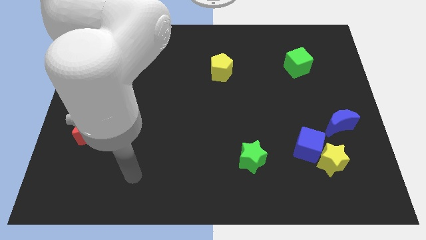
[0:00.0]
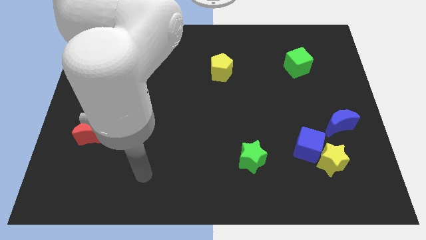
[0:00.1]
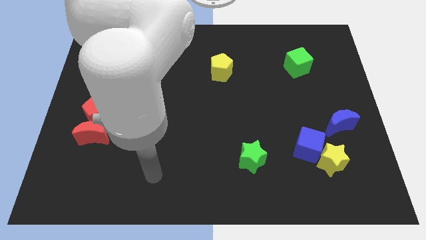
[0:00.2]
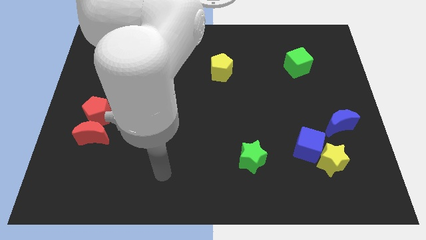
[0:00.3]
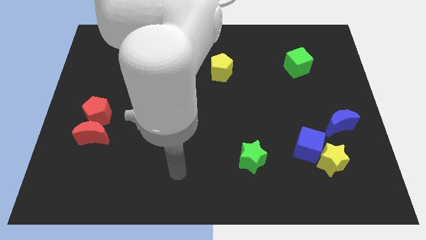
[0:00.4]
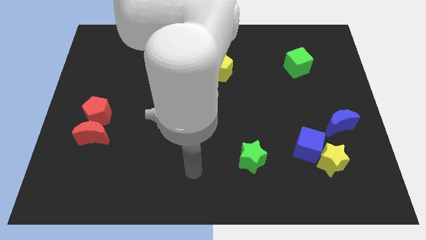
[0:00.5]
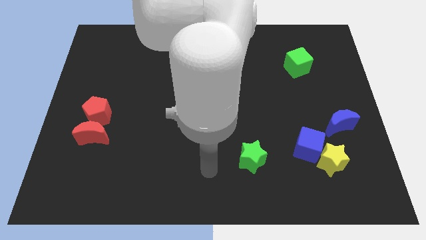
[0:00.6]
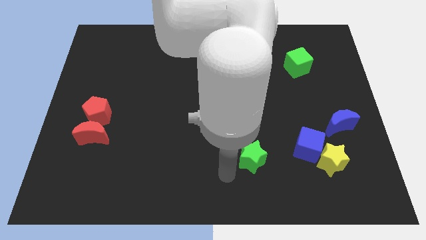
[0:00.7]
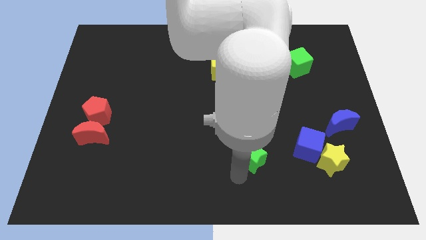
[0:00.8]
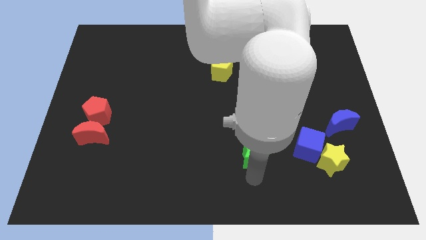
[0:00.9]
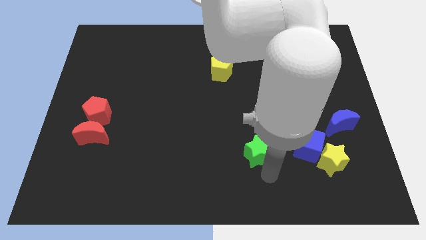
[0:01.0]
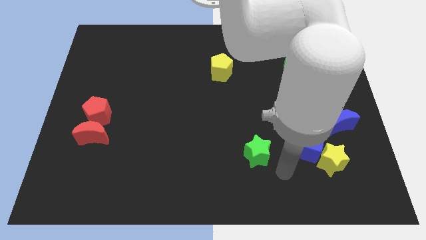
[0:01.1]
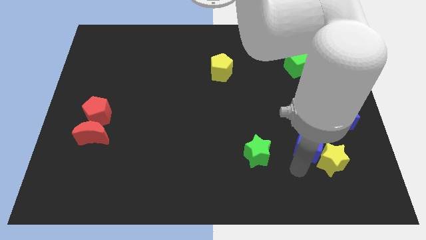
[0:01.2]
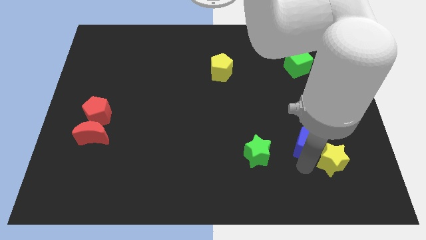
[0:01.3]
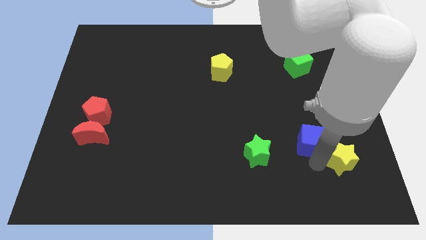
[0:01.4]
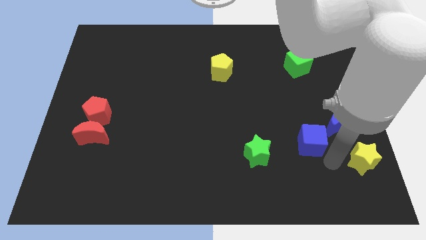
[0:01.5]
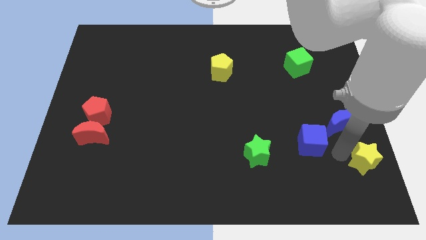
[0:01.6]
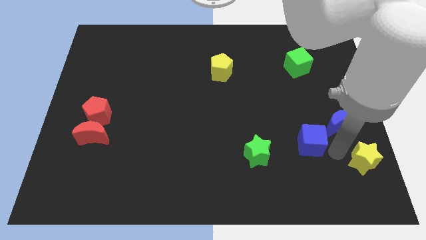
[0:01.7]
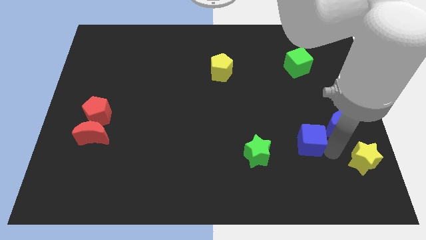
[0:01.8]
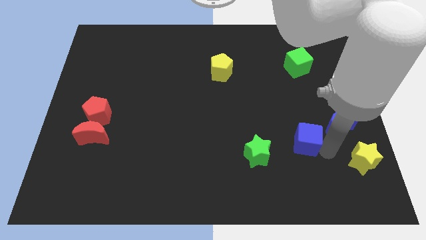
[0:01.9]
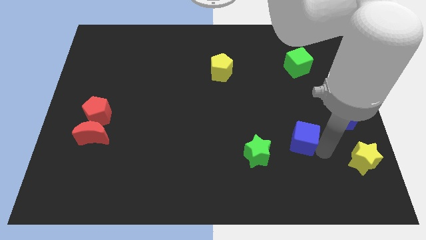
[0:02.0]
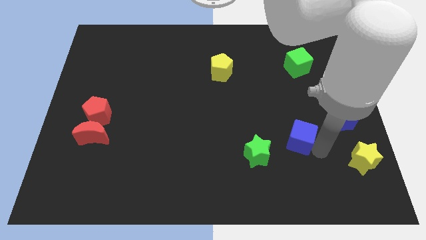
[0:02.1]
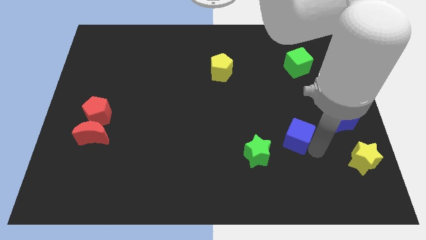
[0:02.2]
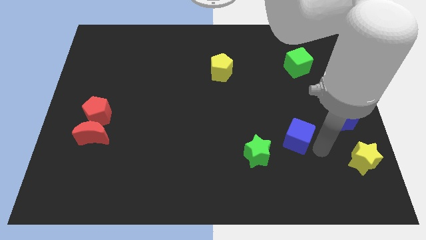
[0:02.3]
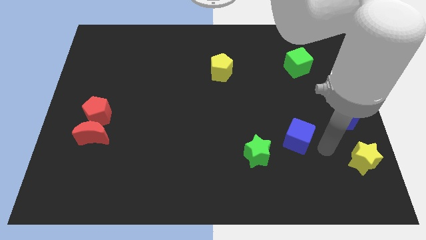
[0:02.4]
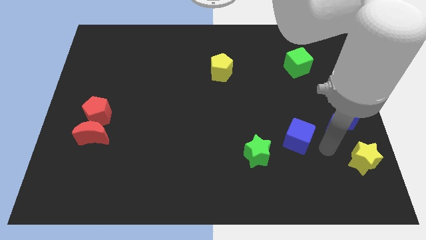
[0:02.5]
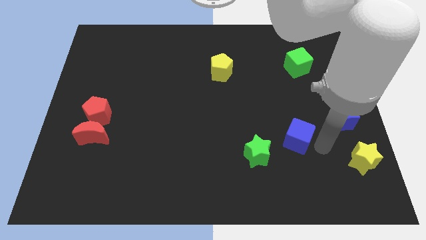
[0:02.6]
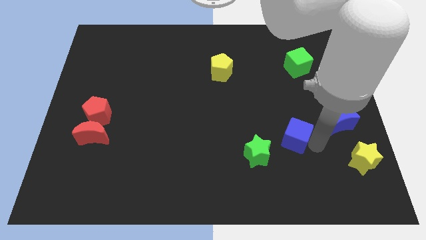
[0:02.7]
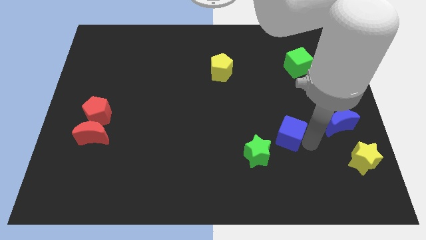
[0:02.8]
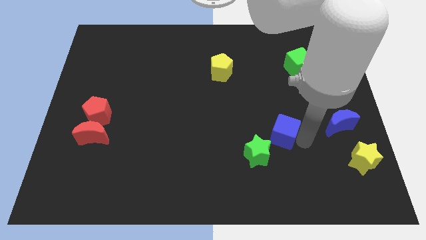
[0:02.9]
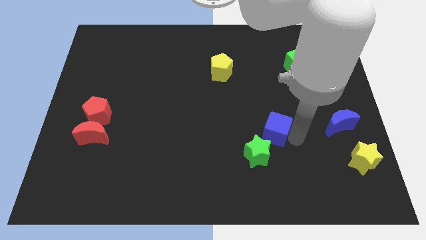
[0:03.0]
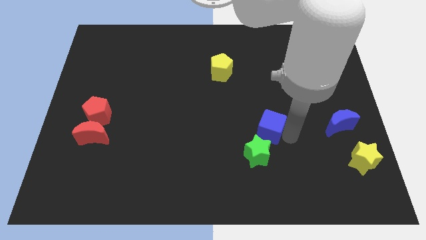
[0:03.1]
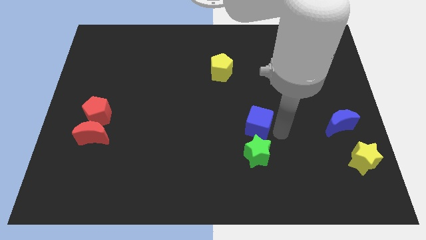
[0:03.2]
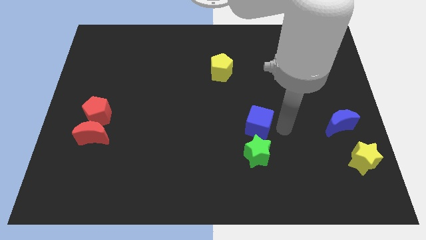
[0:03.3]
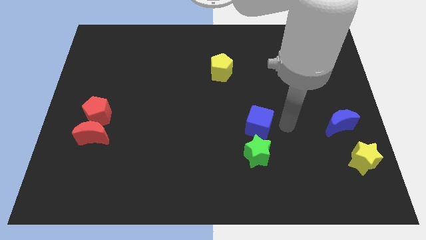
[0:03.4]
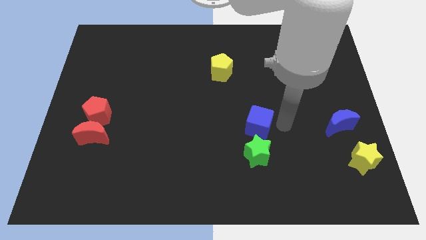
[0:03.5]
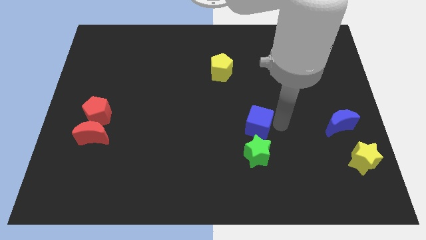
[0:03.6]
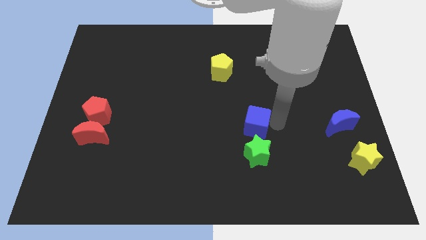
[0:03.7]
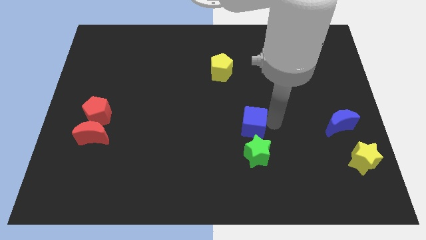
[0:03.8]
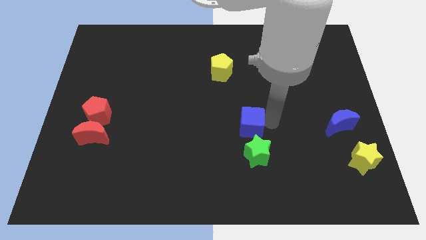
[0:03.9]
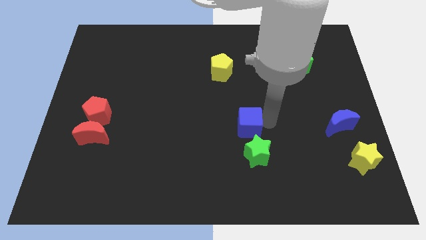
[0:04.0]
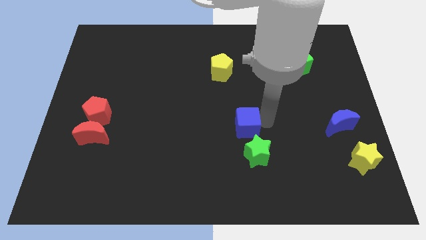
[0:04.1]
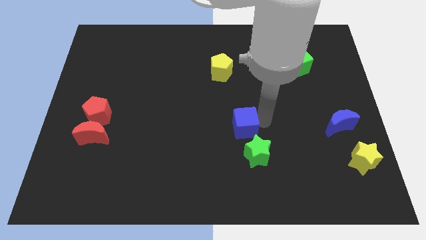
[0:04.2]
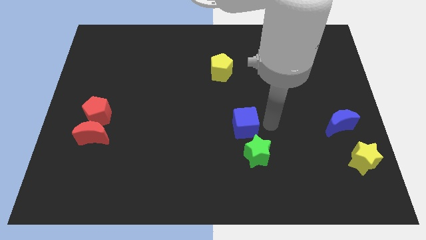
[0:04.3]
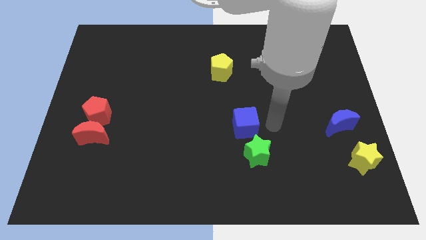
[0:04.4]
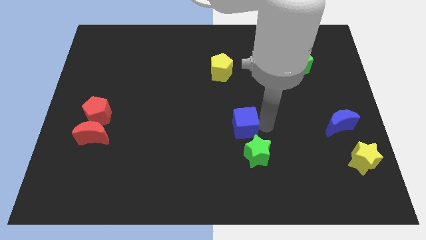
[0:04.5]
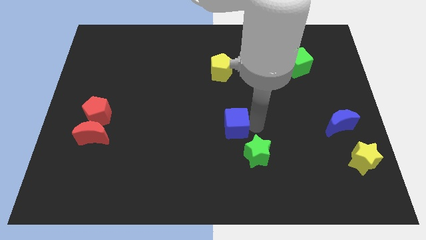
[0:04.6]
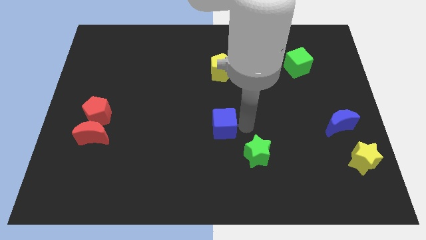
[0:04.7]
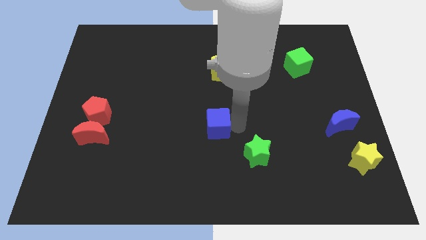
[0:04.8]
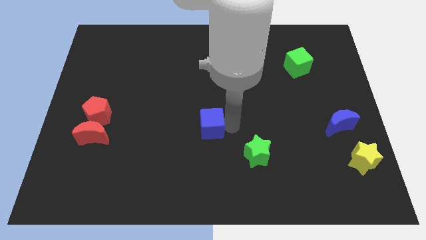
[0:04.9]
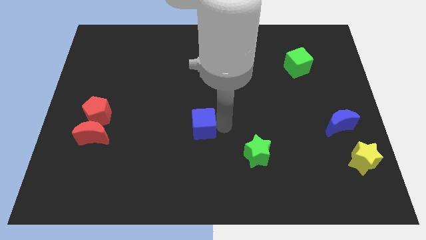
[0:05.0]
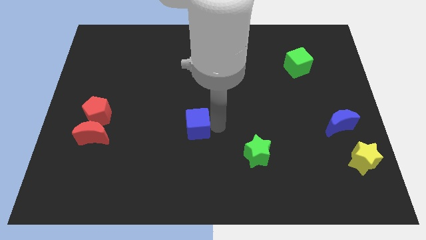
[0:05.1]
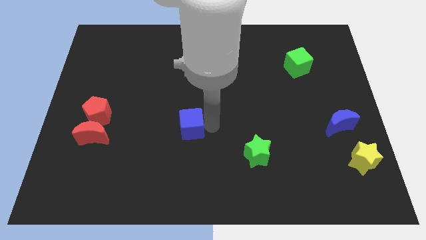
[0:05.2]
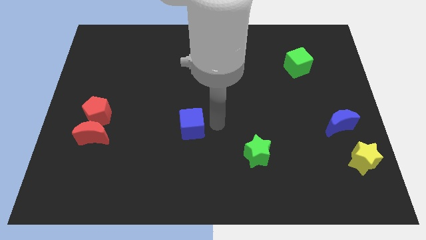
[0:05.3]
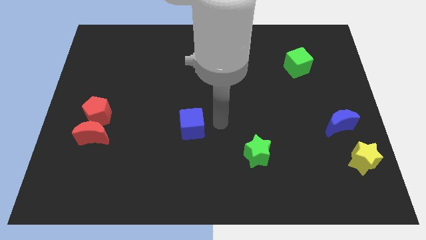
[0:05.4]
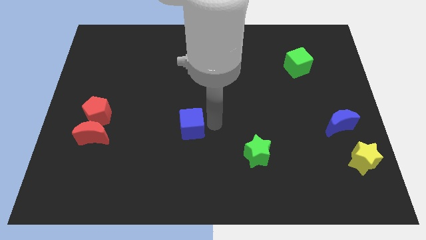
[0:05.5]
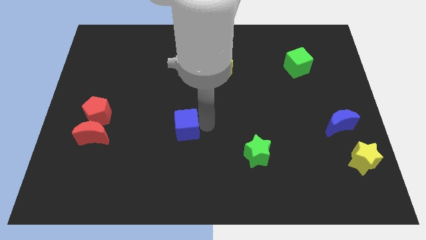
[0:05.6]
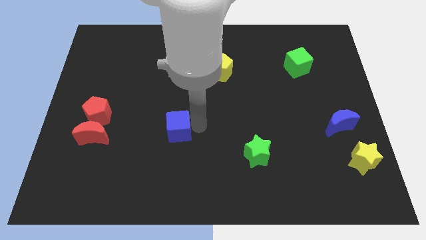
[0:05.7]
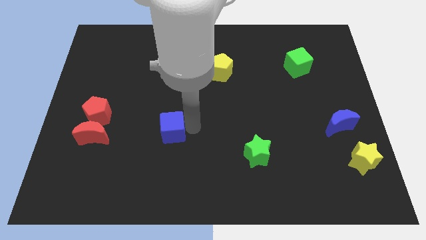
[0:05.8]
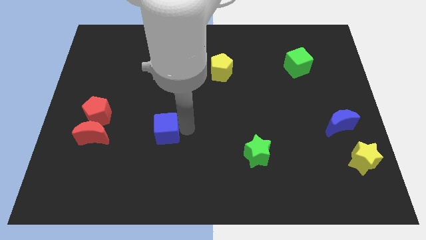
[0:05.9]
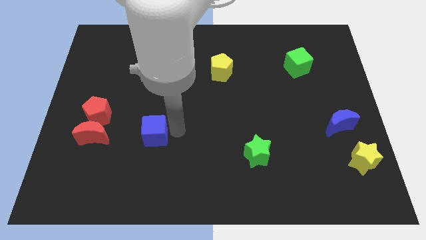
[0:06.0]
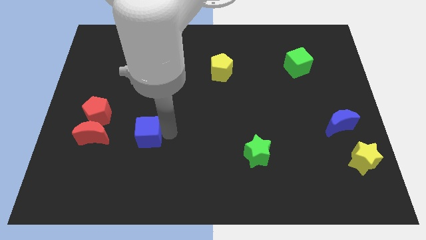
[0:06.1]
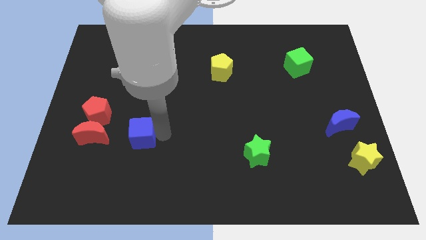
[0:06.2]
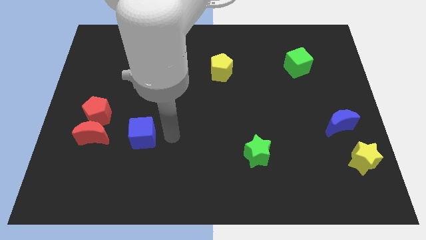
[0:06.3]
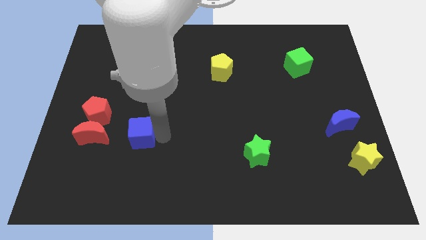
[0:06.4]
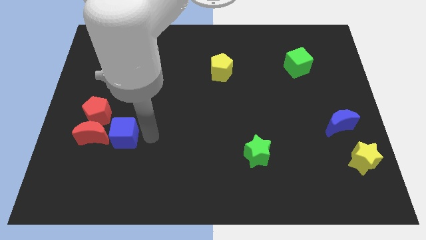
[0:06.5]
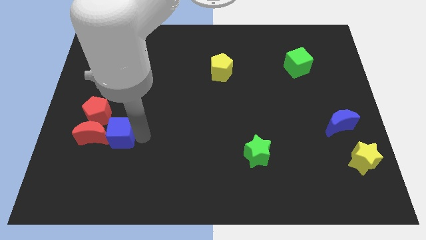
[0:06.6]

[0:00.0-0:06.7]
push the blue cube towards the red moon

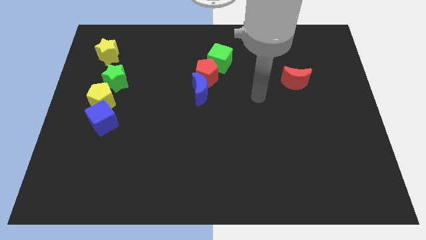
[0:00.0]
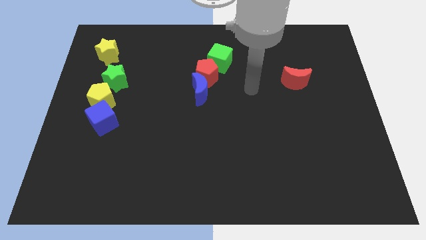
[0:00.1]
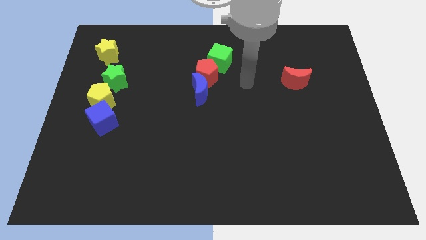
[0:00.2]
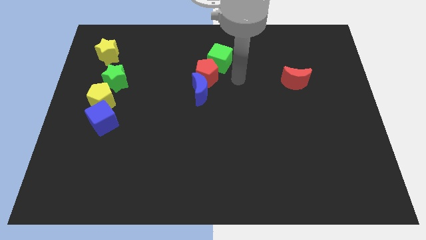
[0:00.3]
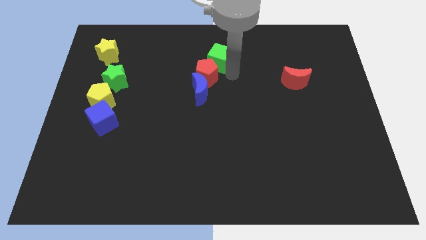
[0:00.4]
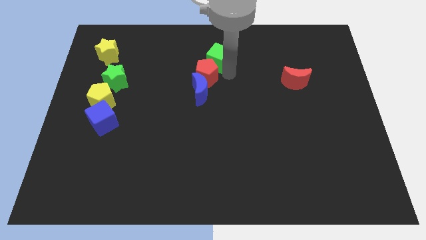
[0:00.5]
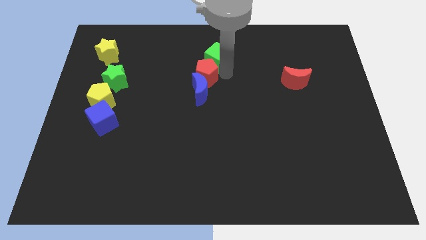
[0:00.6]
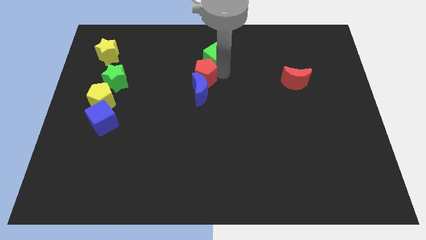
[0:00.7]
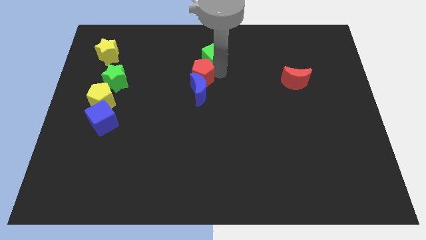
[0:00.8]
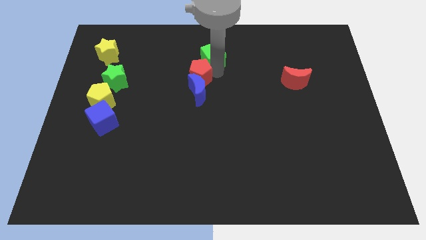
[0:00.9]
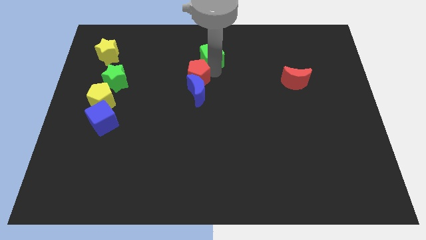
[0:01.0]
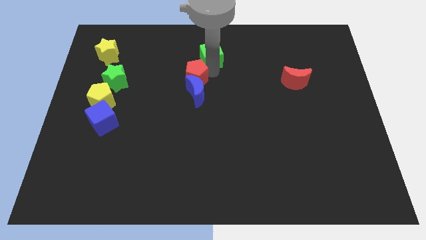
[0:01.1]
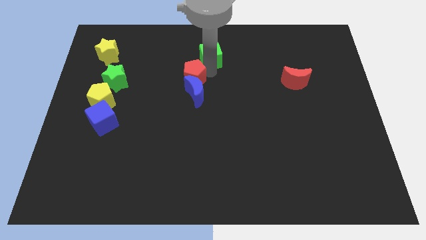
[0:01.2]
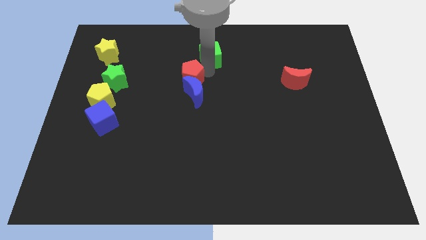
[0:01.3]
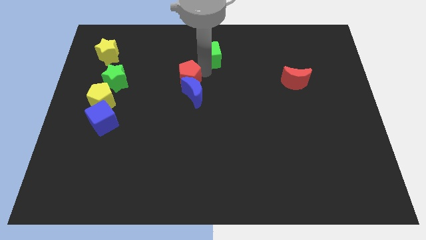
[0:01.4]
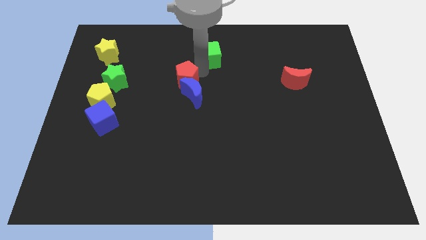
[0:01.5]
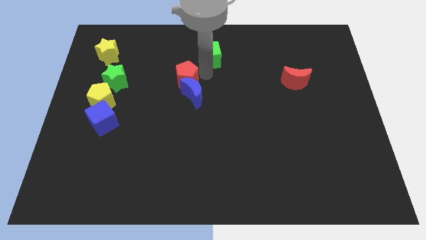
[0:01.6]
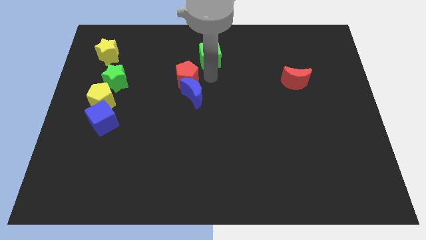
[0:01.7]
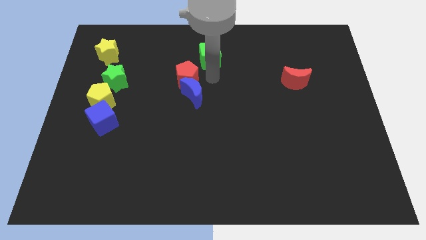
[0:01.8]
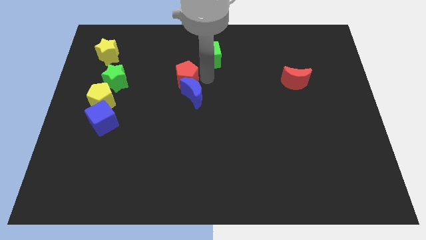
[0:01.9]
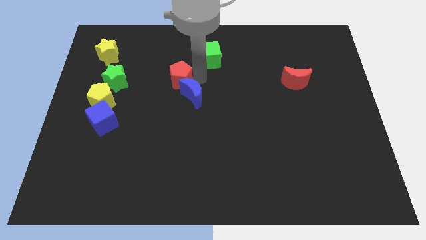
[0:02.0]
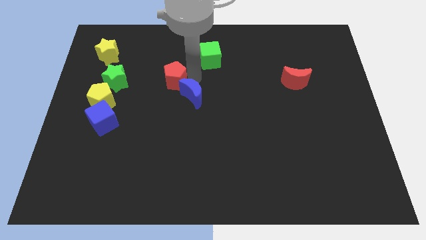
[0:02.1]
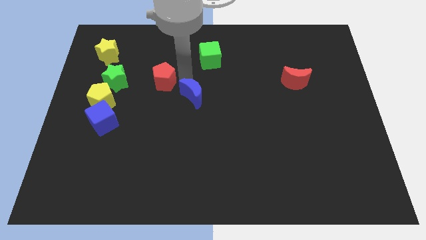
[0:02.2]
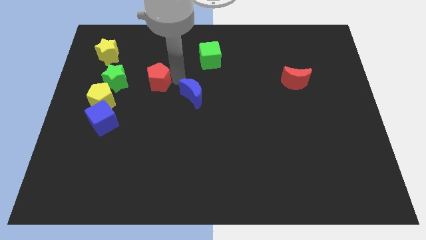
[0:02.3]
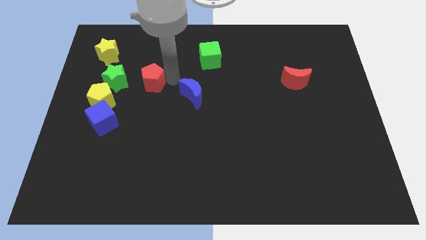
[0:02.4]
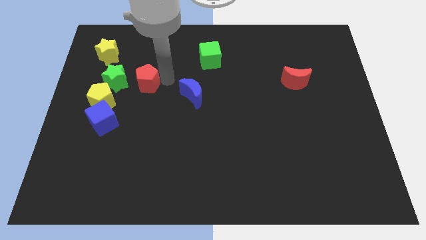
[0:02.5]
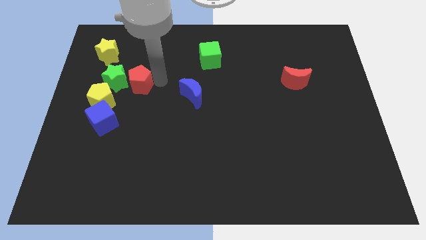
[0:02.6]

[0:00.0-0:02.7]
slide the red pentagon close to the green star
